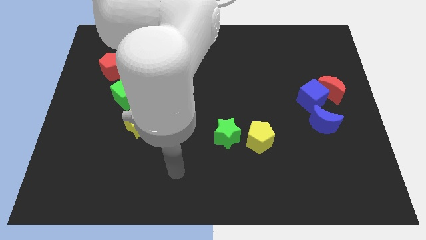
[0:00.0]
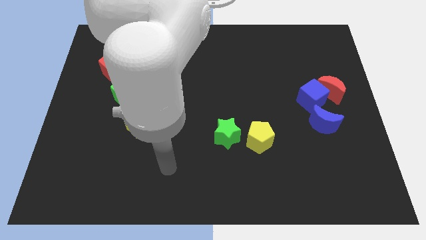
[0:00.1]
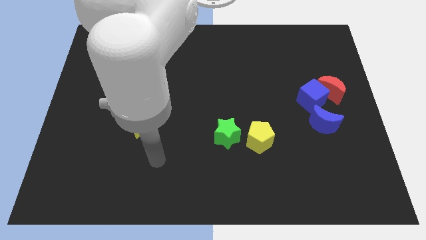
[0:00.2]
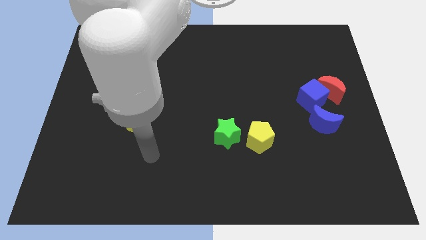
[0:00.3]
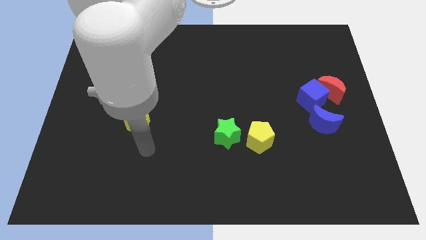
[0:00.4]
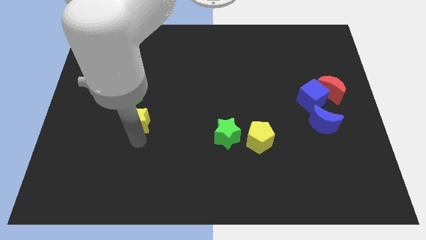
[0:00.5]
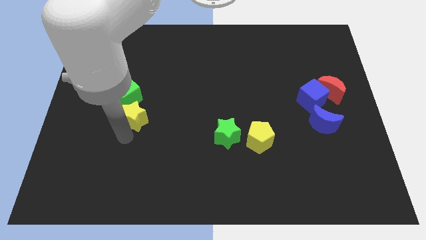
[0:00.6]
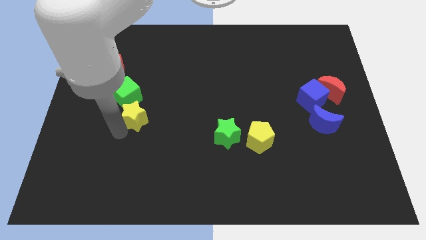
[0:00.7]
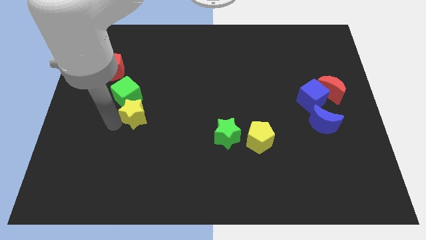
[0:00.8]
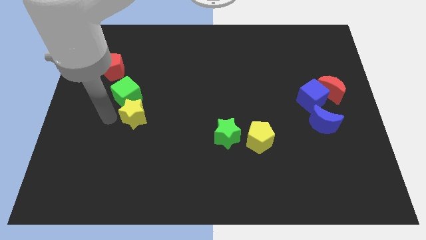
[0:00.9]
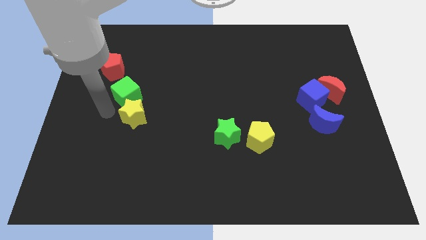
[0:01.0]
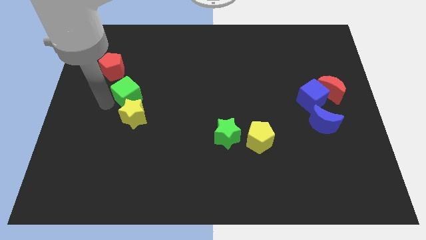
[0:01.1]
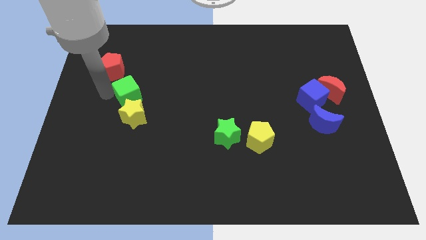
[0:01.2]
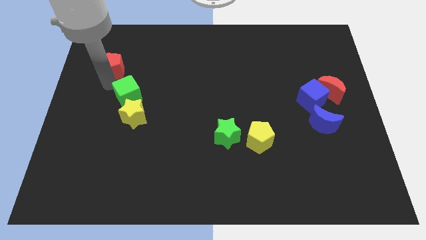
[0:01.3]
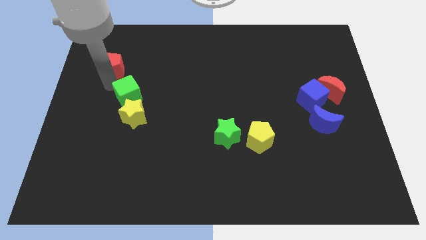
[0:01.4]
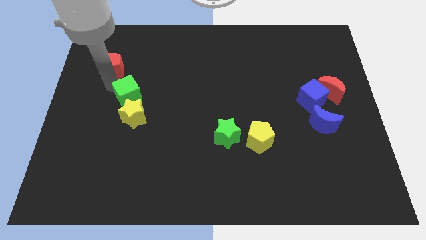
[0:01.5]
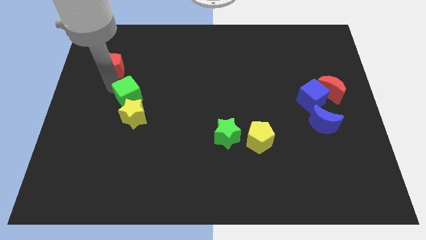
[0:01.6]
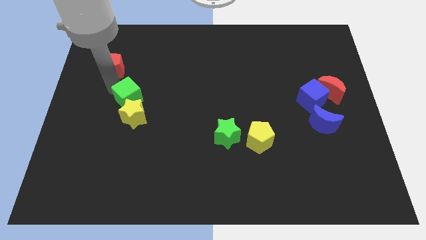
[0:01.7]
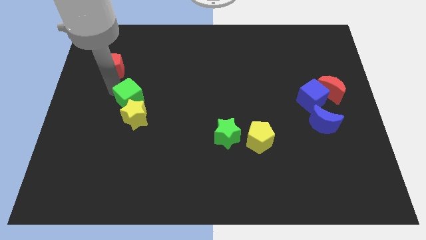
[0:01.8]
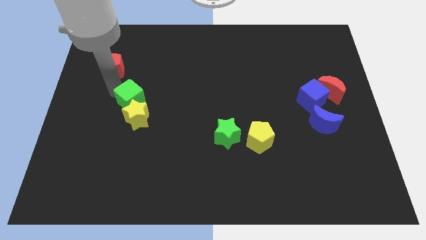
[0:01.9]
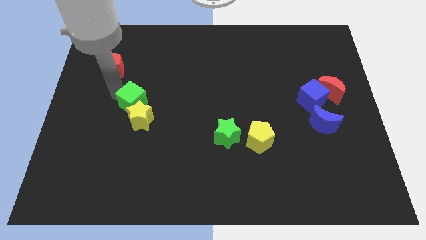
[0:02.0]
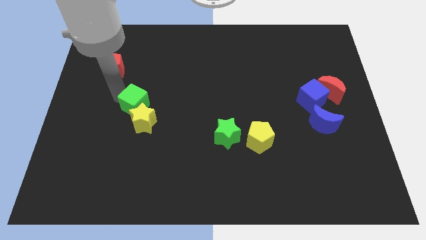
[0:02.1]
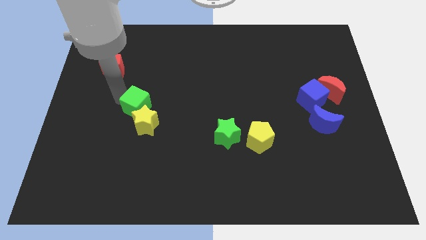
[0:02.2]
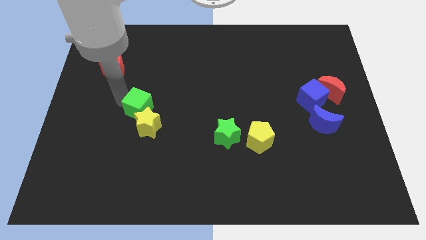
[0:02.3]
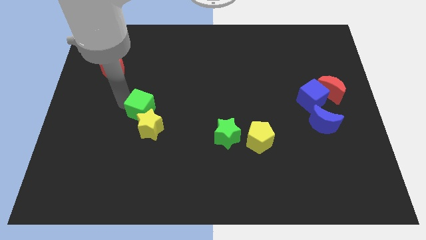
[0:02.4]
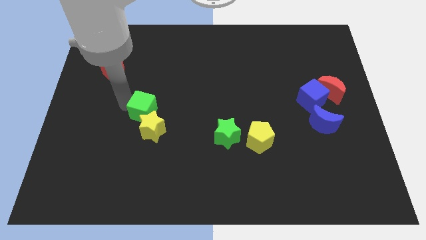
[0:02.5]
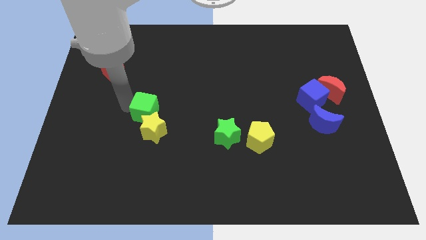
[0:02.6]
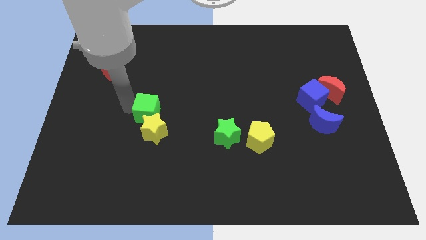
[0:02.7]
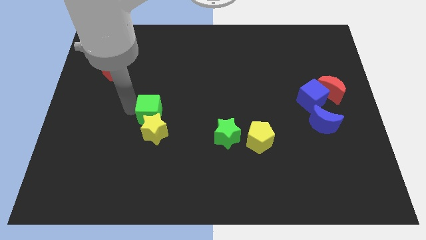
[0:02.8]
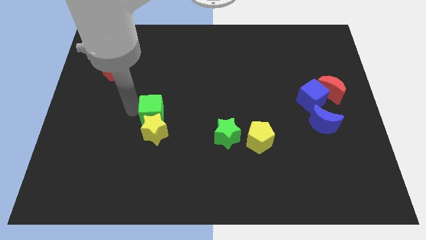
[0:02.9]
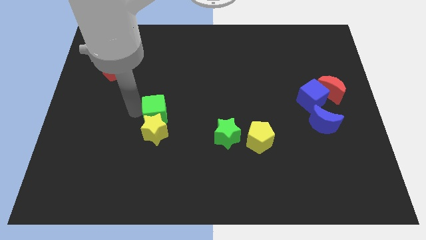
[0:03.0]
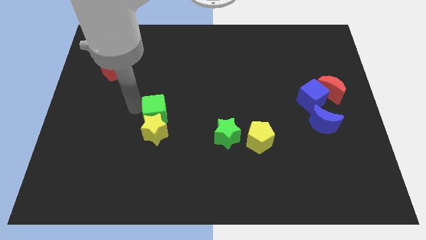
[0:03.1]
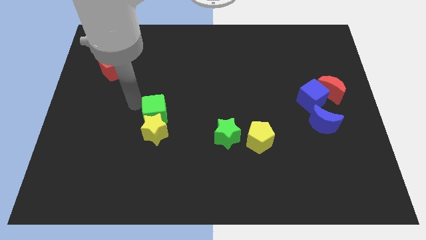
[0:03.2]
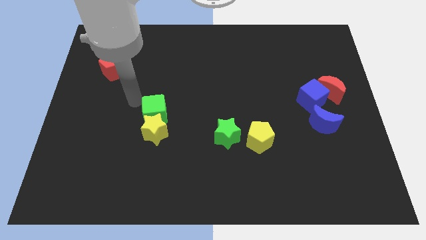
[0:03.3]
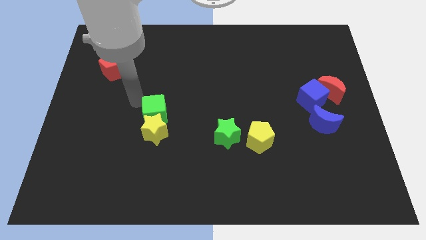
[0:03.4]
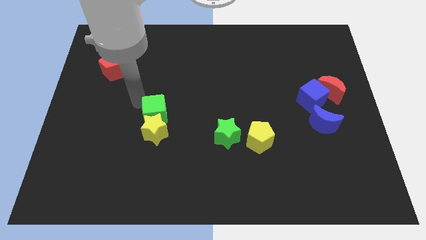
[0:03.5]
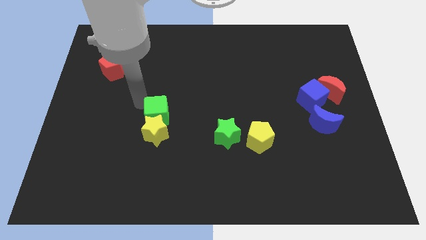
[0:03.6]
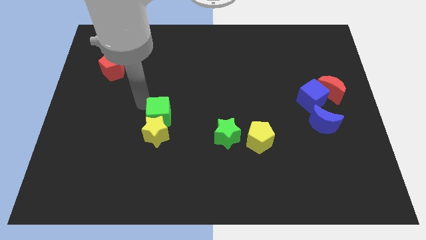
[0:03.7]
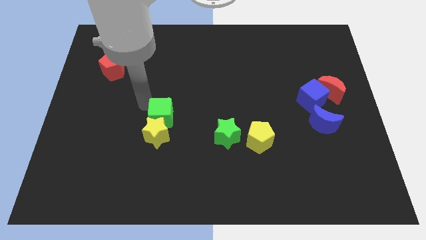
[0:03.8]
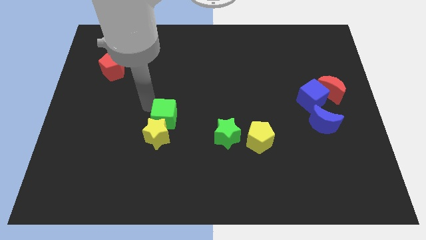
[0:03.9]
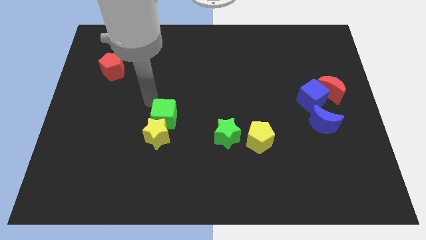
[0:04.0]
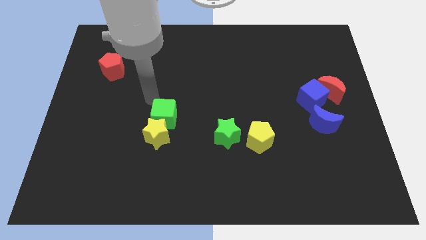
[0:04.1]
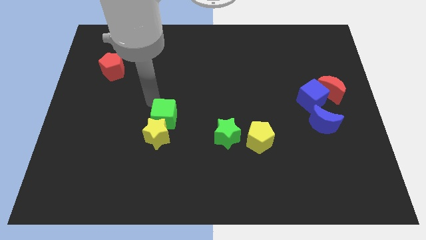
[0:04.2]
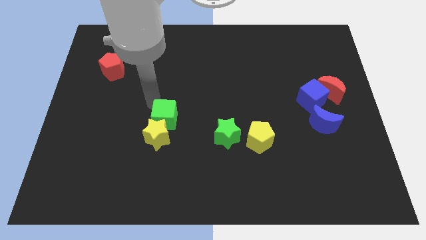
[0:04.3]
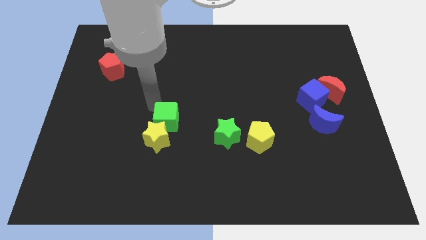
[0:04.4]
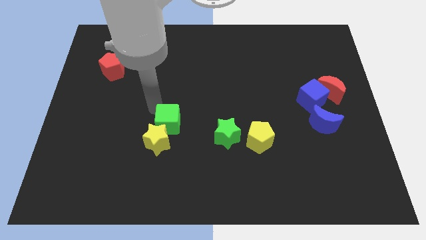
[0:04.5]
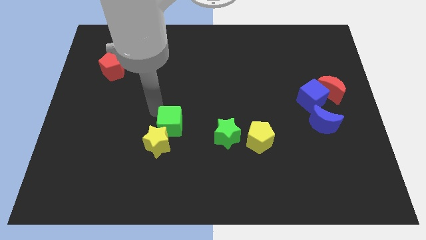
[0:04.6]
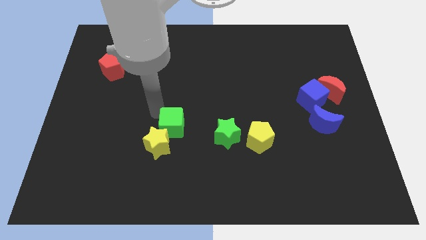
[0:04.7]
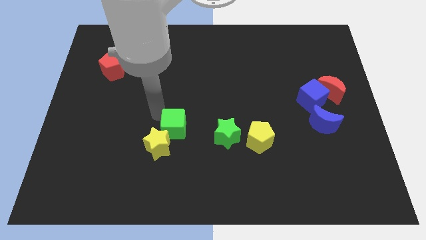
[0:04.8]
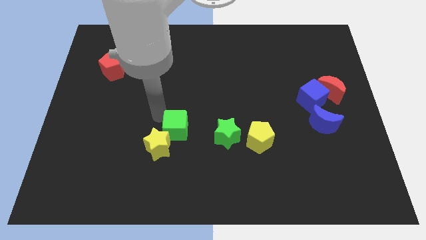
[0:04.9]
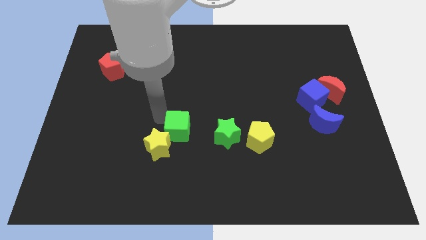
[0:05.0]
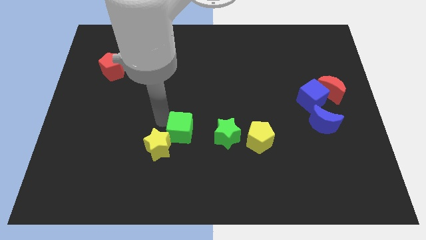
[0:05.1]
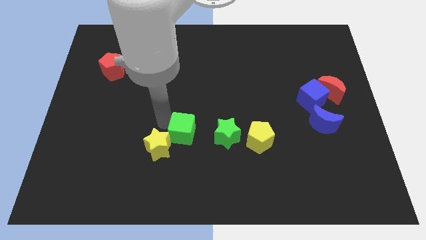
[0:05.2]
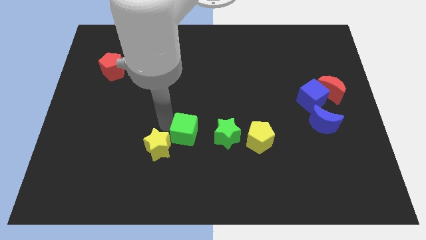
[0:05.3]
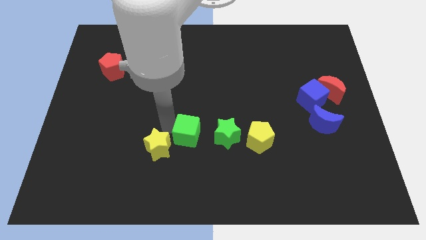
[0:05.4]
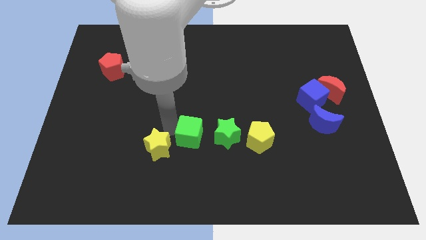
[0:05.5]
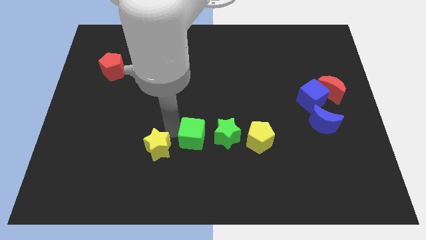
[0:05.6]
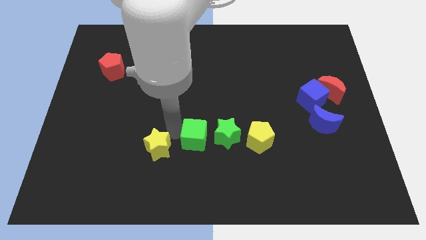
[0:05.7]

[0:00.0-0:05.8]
slide the green cube diagonally down and right

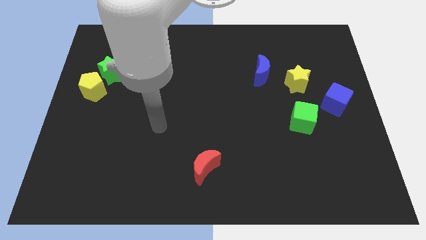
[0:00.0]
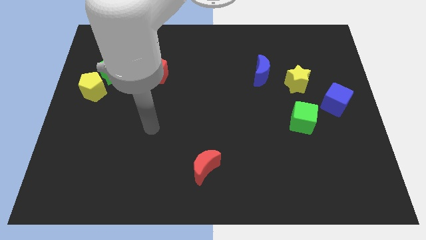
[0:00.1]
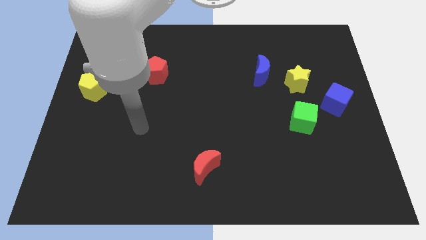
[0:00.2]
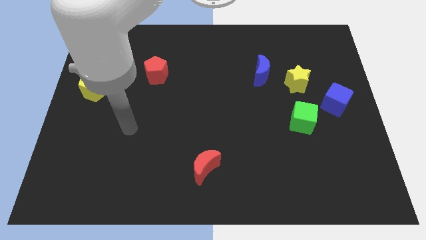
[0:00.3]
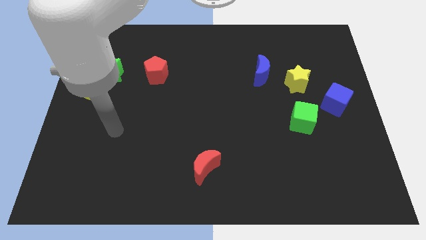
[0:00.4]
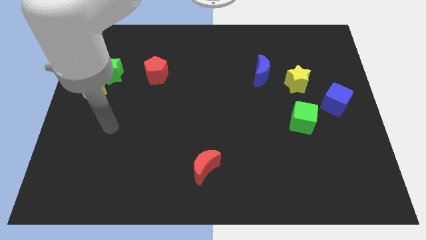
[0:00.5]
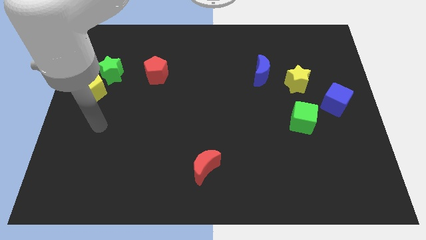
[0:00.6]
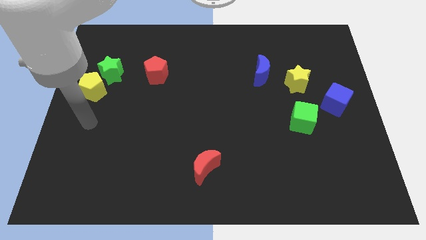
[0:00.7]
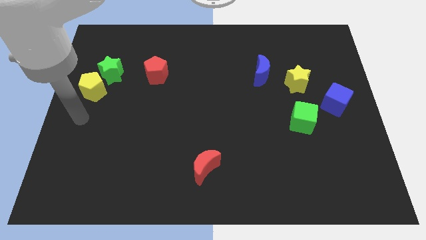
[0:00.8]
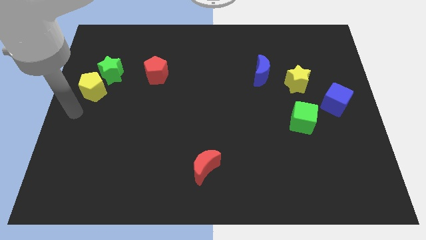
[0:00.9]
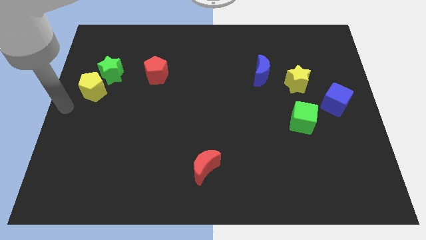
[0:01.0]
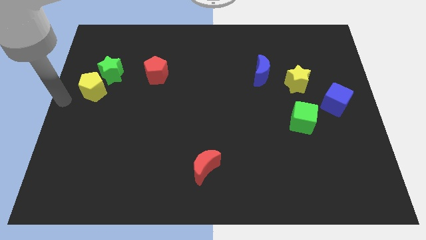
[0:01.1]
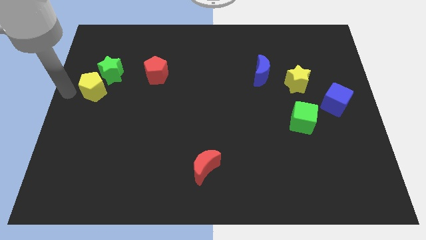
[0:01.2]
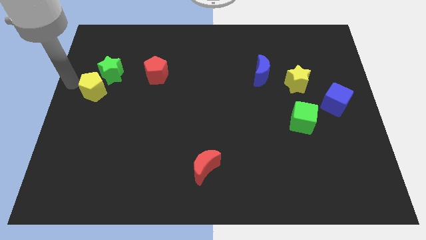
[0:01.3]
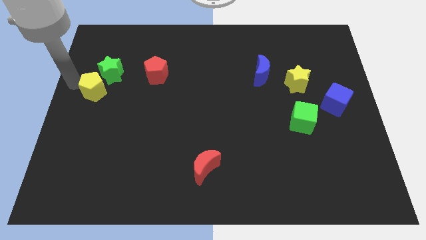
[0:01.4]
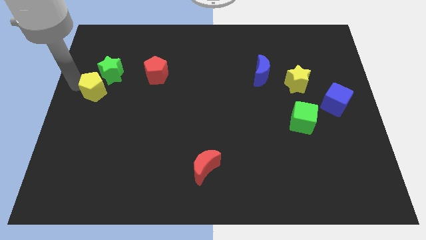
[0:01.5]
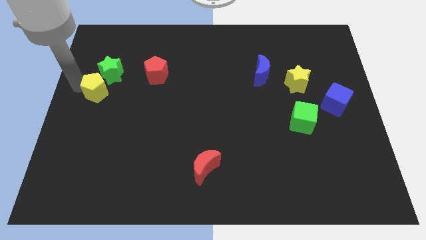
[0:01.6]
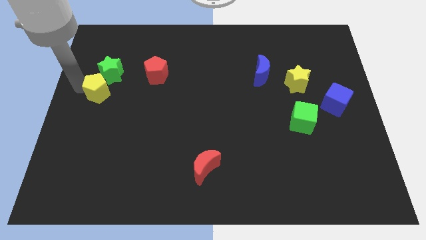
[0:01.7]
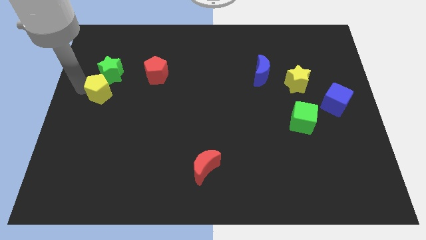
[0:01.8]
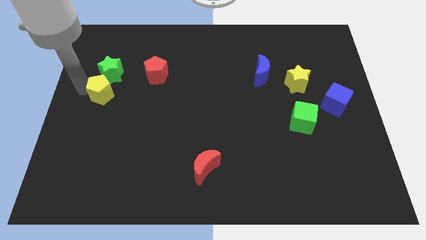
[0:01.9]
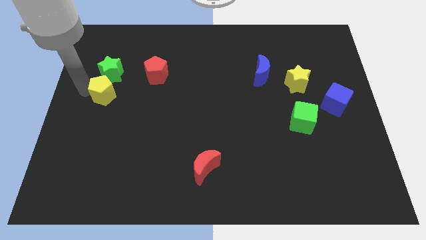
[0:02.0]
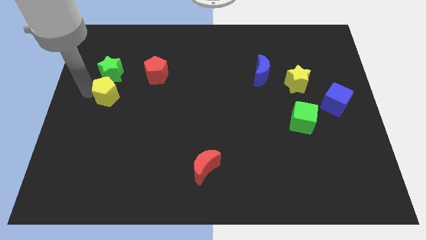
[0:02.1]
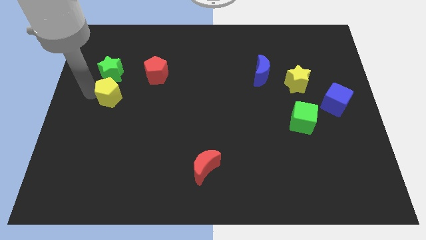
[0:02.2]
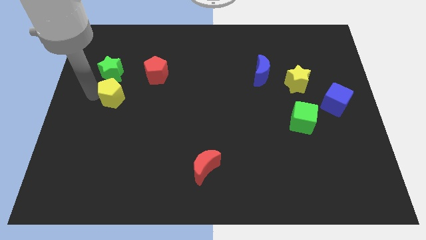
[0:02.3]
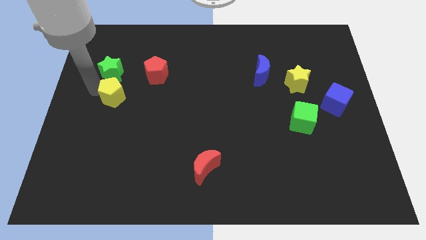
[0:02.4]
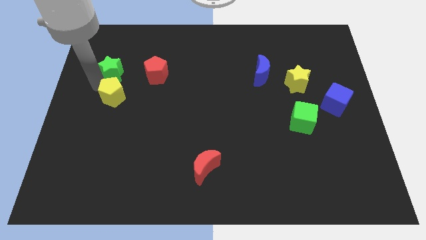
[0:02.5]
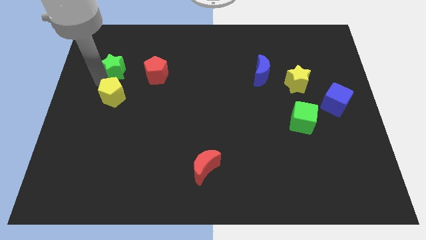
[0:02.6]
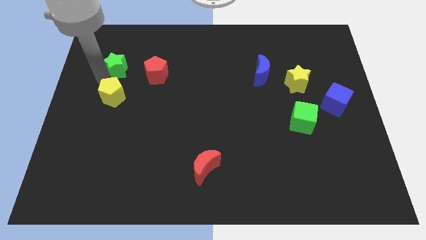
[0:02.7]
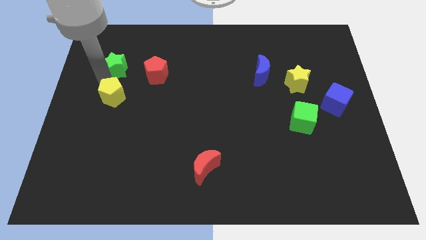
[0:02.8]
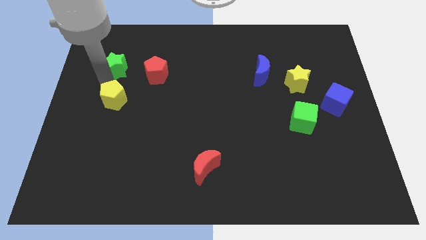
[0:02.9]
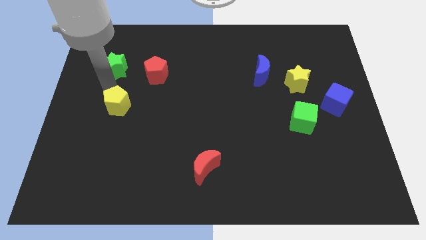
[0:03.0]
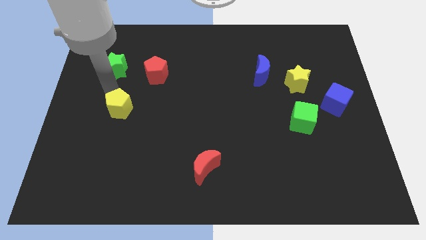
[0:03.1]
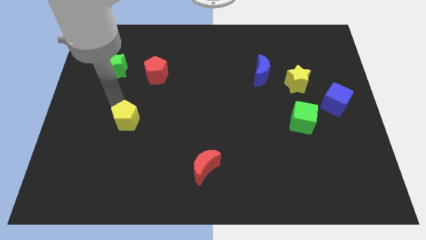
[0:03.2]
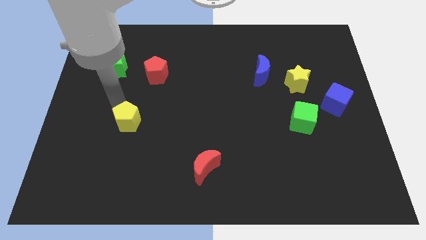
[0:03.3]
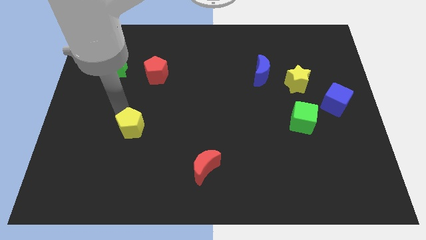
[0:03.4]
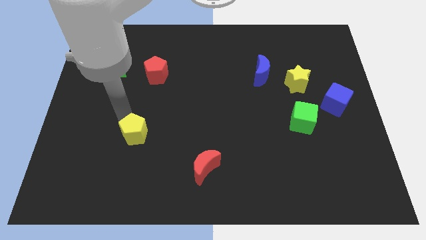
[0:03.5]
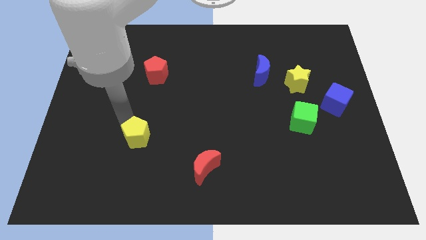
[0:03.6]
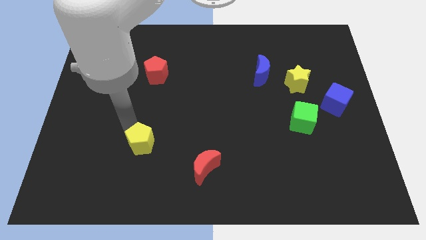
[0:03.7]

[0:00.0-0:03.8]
push the yellow pentagon downwards and right
